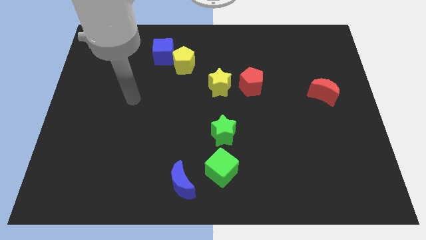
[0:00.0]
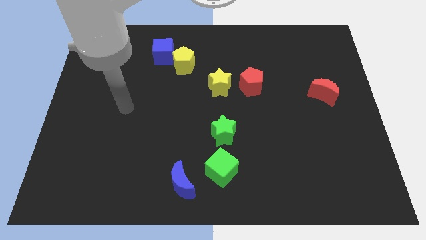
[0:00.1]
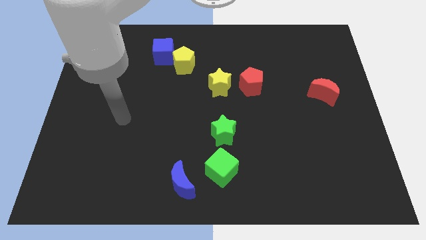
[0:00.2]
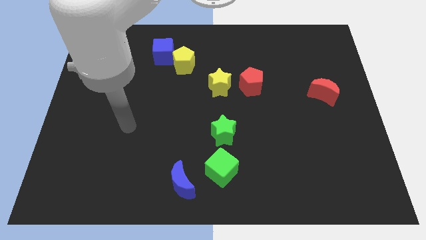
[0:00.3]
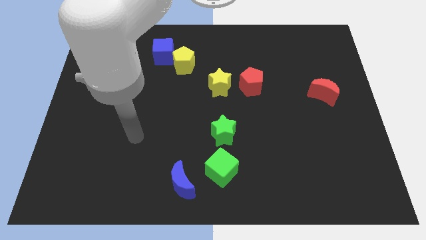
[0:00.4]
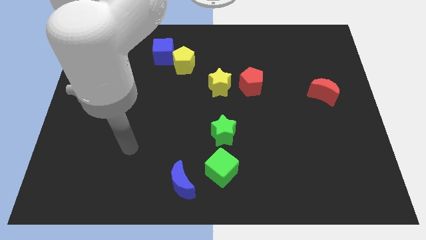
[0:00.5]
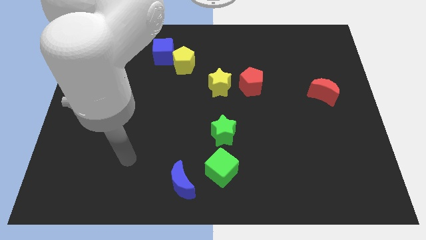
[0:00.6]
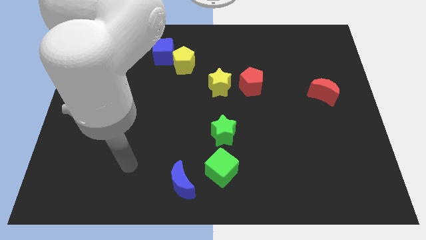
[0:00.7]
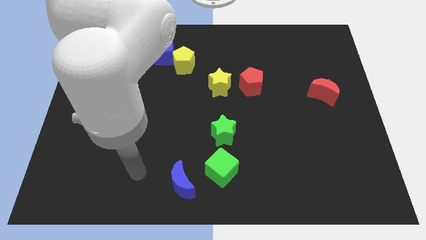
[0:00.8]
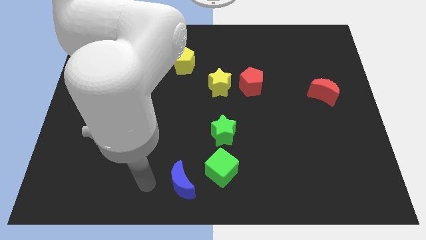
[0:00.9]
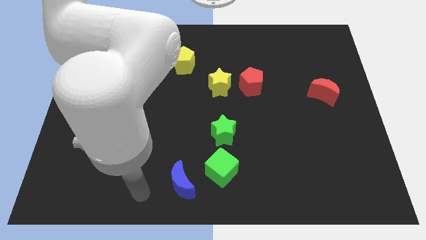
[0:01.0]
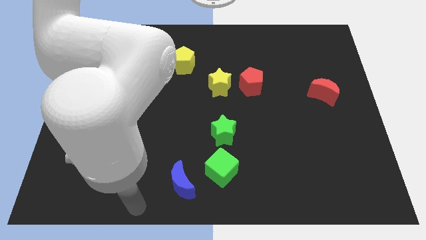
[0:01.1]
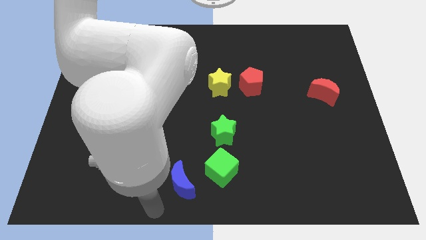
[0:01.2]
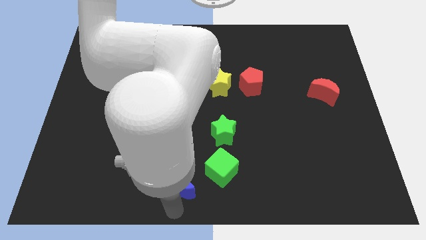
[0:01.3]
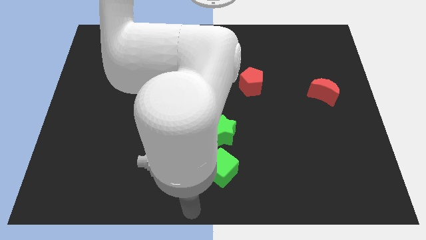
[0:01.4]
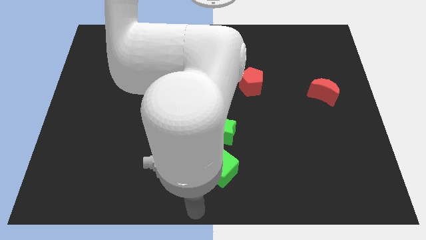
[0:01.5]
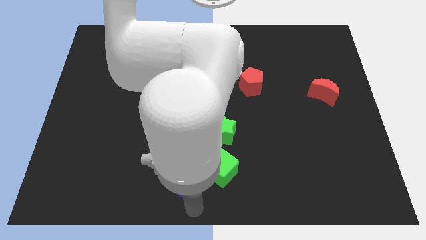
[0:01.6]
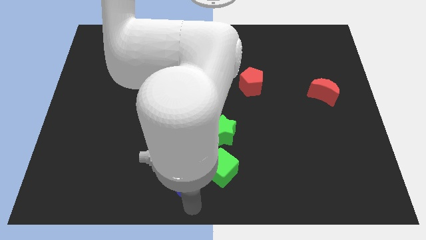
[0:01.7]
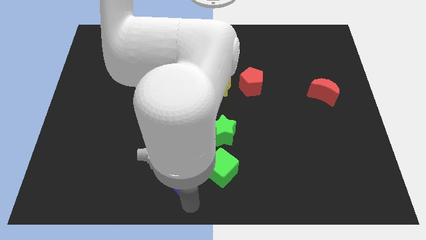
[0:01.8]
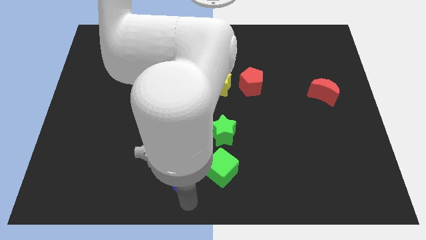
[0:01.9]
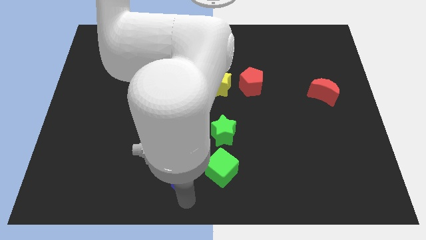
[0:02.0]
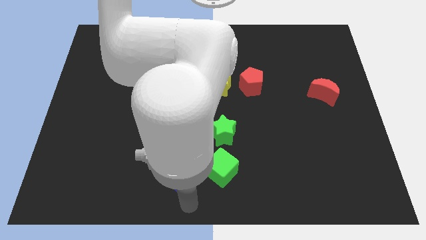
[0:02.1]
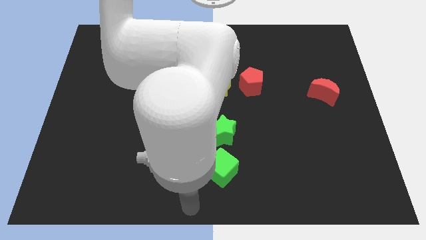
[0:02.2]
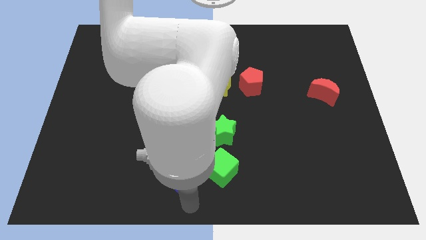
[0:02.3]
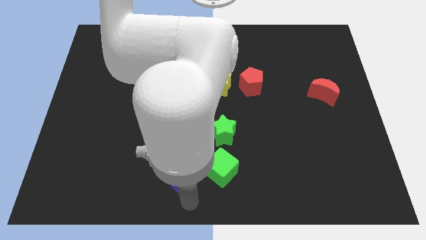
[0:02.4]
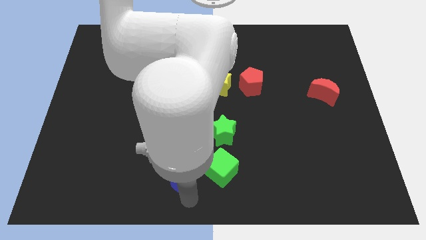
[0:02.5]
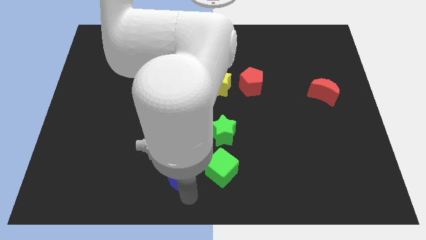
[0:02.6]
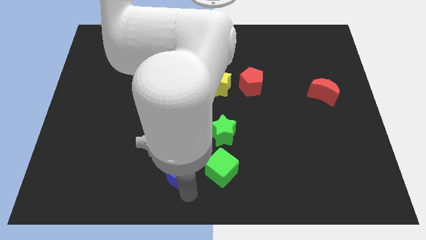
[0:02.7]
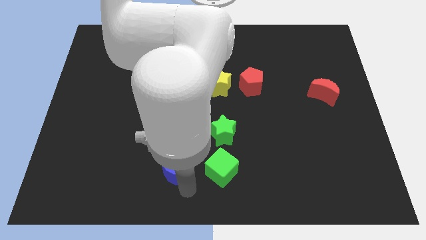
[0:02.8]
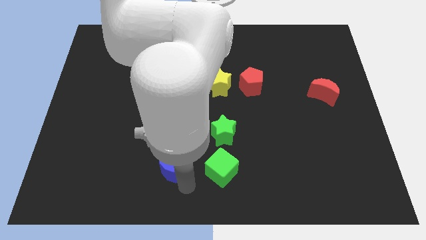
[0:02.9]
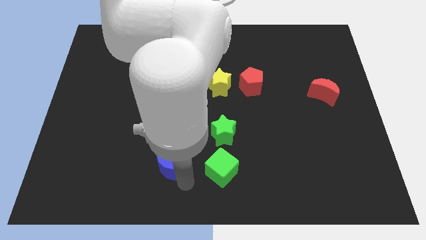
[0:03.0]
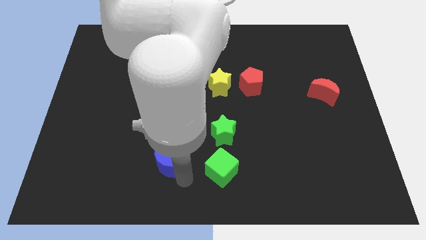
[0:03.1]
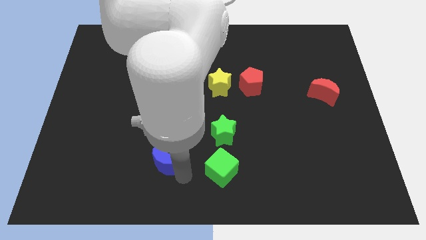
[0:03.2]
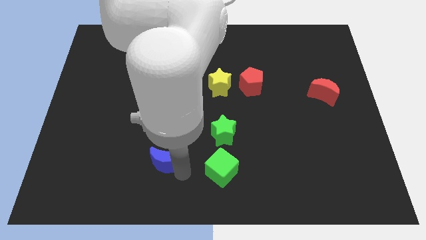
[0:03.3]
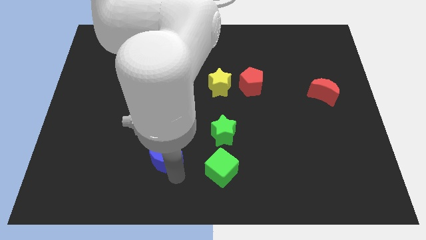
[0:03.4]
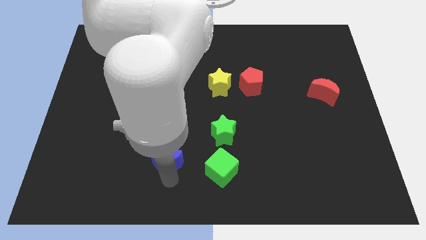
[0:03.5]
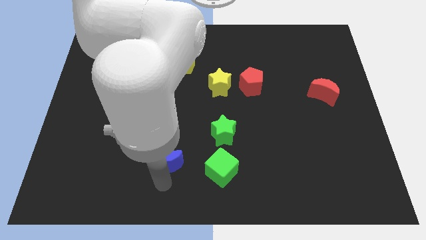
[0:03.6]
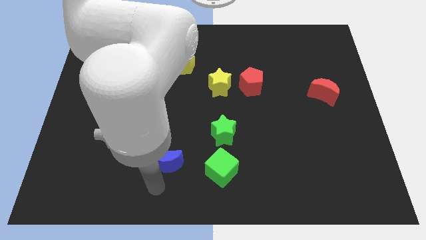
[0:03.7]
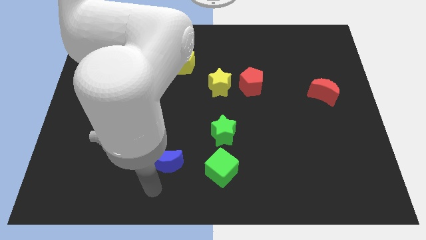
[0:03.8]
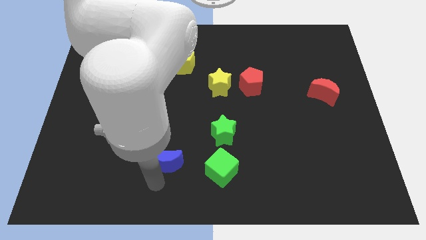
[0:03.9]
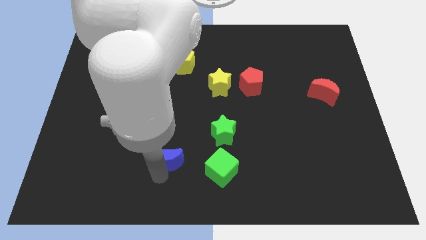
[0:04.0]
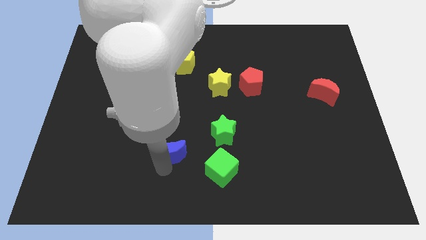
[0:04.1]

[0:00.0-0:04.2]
slide the blue moon upwards somewhat

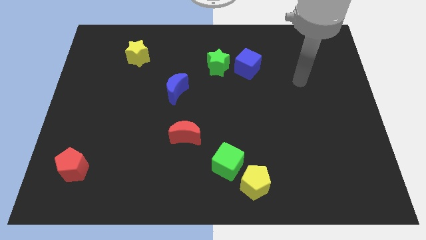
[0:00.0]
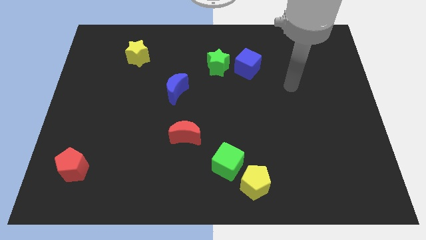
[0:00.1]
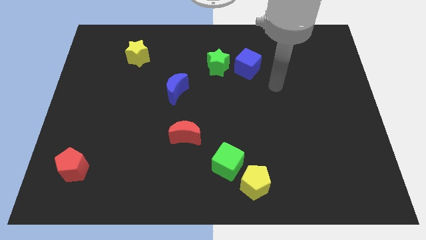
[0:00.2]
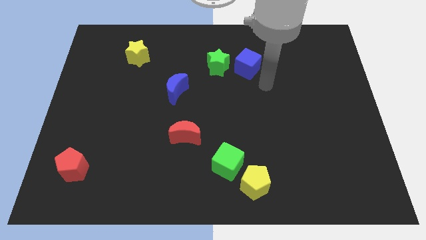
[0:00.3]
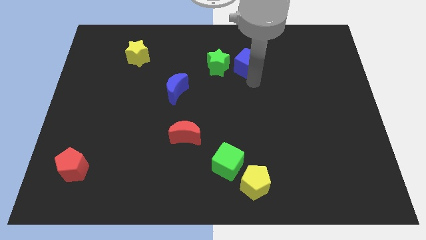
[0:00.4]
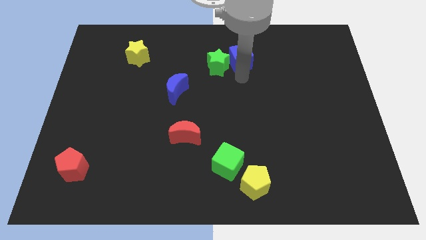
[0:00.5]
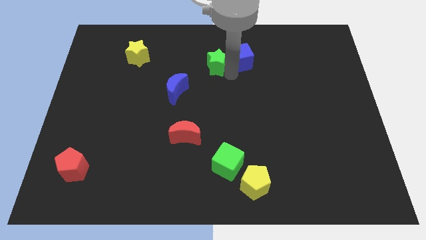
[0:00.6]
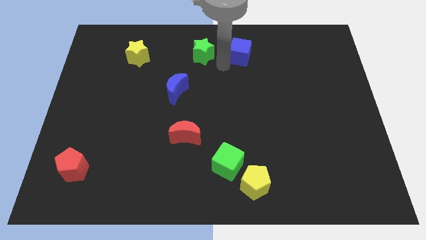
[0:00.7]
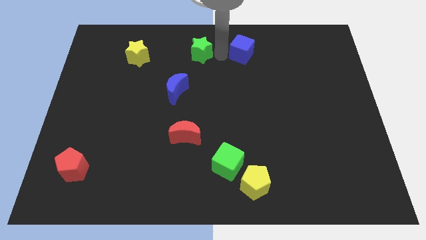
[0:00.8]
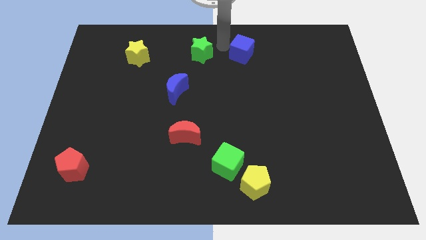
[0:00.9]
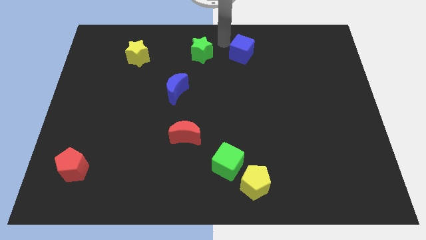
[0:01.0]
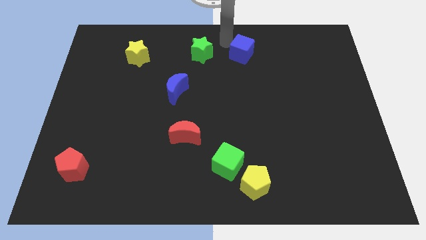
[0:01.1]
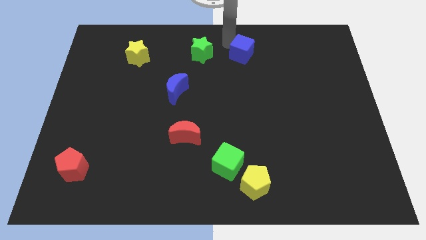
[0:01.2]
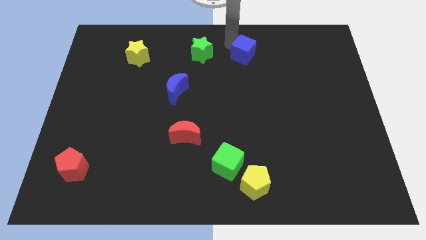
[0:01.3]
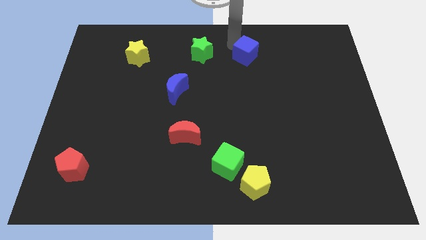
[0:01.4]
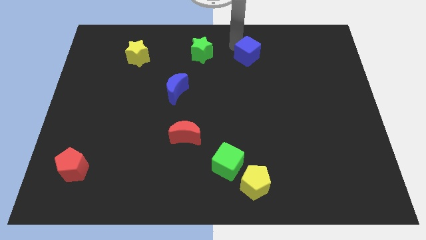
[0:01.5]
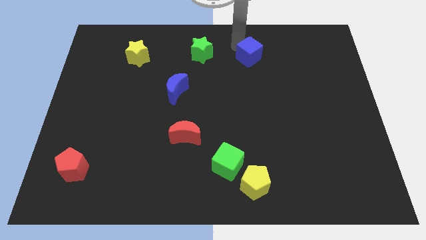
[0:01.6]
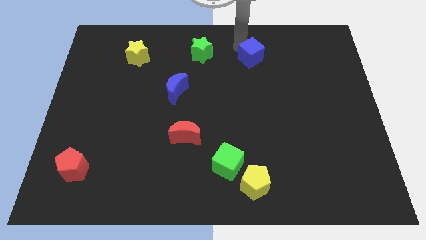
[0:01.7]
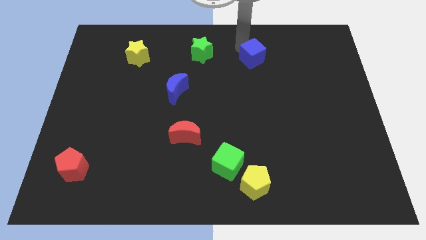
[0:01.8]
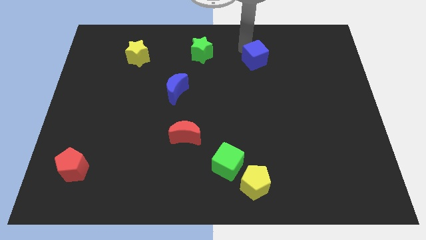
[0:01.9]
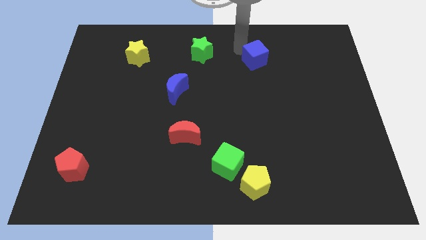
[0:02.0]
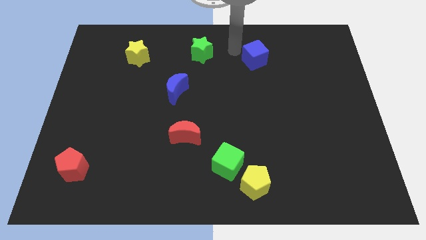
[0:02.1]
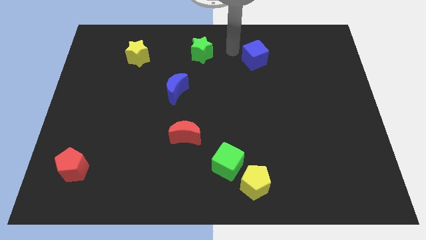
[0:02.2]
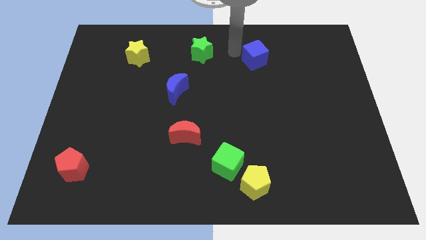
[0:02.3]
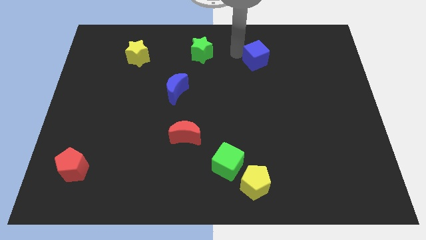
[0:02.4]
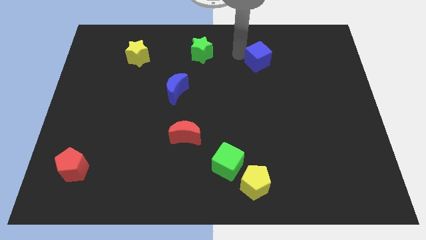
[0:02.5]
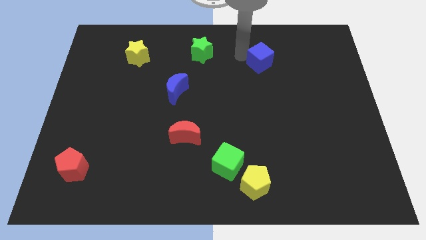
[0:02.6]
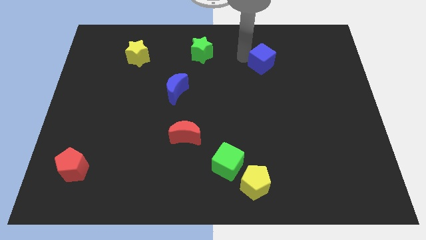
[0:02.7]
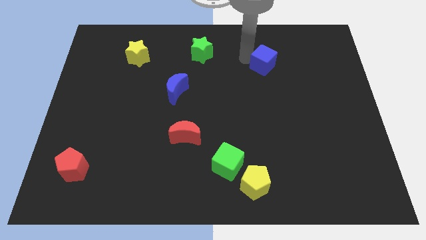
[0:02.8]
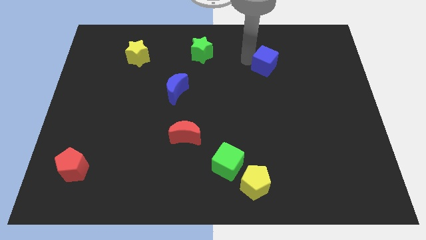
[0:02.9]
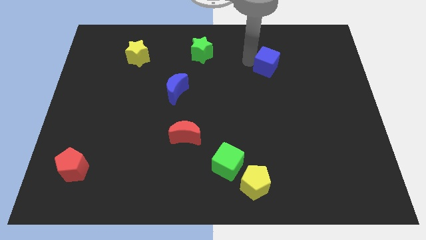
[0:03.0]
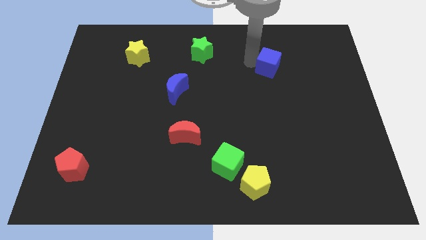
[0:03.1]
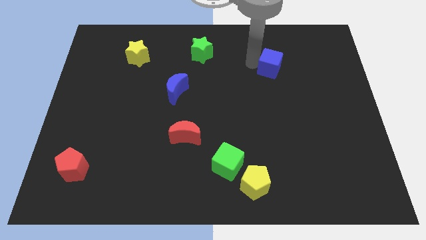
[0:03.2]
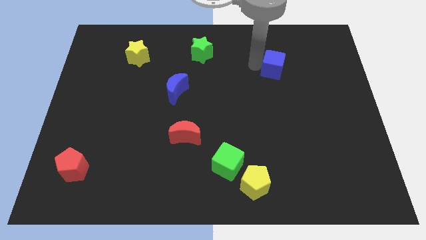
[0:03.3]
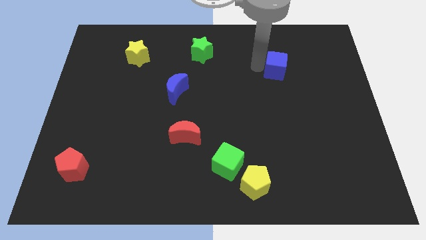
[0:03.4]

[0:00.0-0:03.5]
slightly move the blue cube to the right

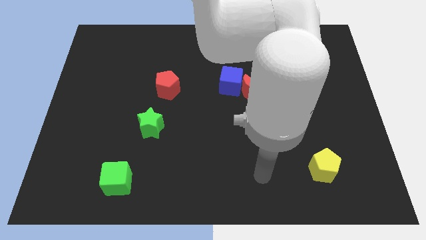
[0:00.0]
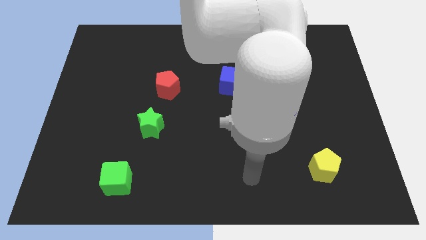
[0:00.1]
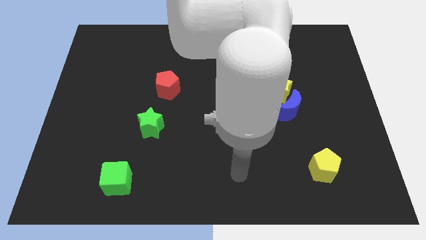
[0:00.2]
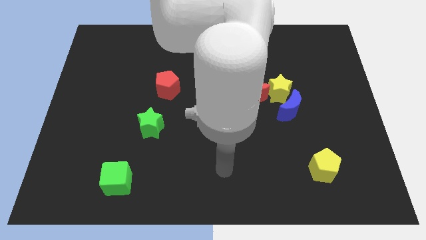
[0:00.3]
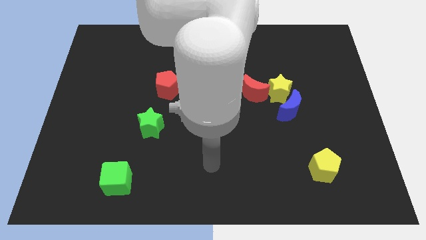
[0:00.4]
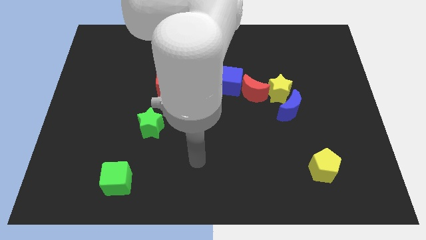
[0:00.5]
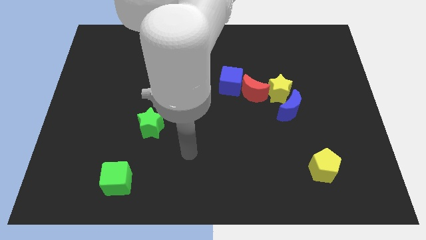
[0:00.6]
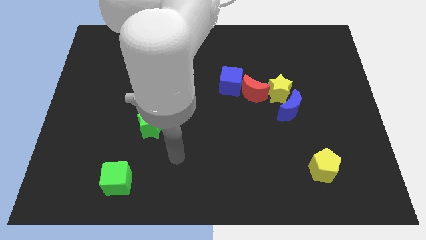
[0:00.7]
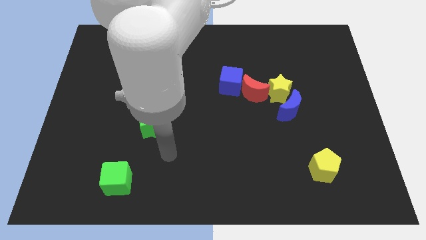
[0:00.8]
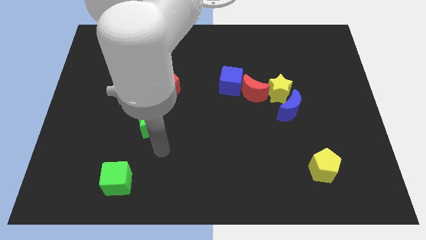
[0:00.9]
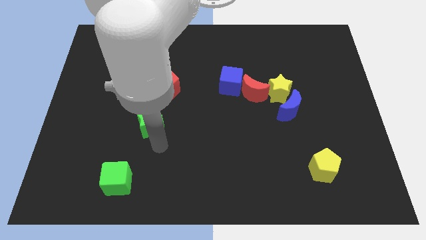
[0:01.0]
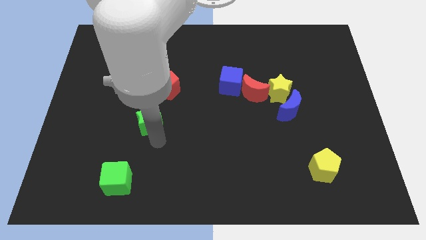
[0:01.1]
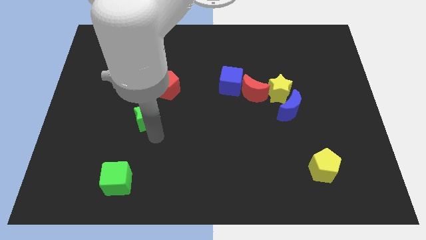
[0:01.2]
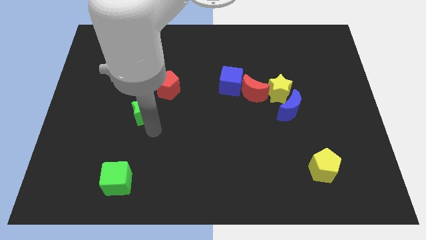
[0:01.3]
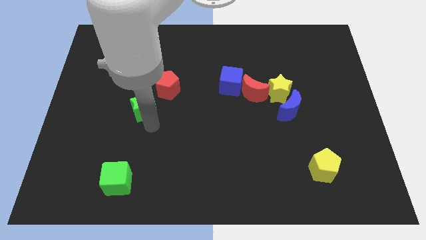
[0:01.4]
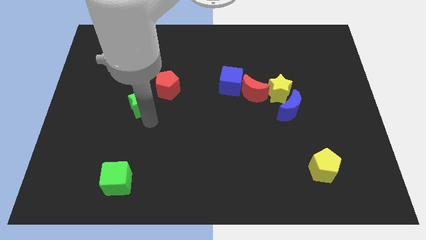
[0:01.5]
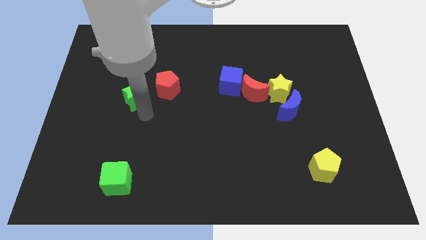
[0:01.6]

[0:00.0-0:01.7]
slightly move the green star upwards
